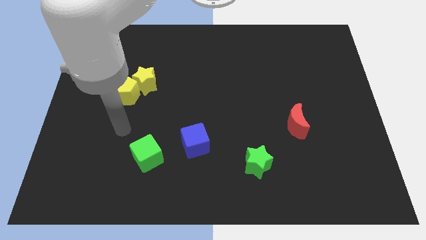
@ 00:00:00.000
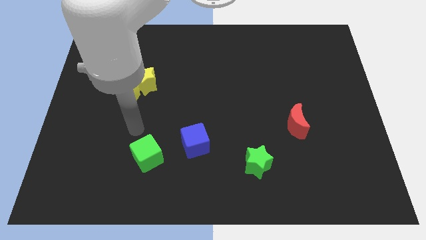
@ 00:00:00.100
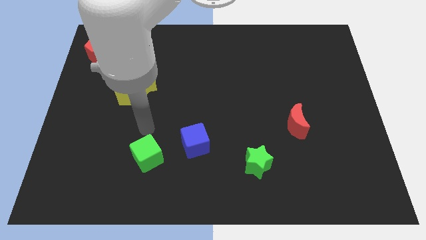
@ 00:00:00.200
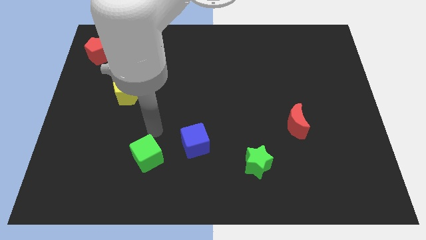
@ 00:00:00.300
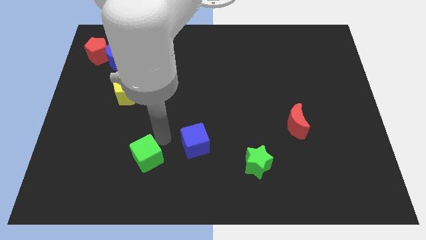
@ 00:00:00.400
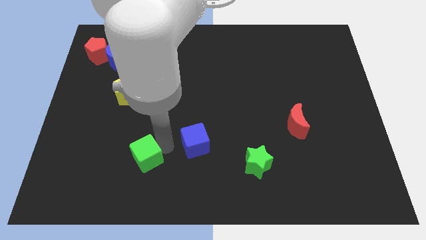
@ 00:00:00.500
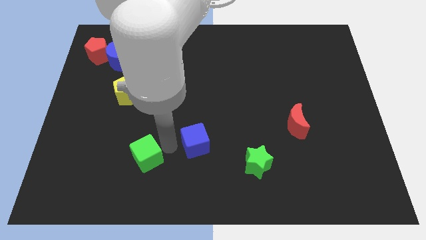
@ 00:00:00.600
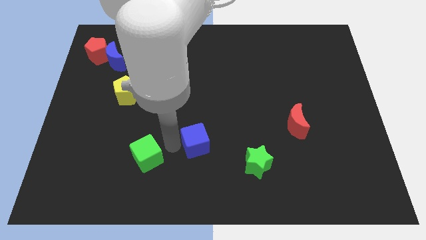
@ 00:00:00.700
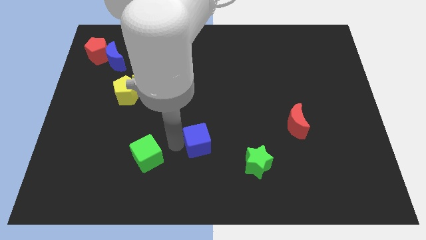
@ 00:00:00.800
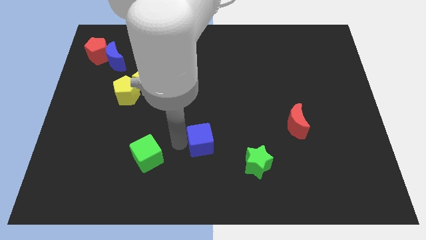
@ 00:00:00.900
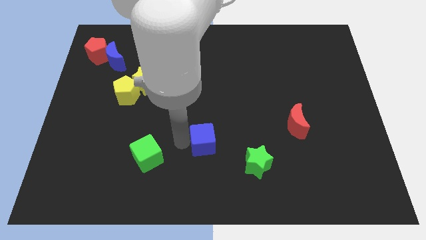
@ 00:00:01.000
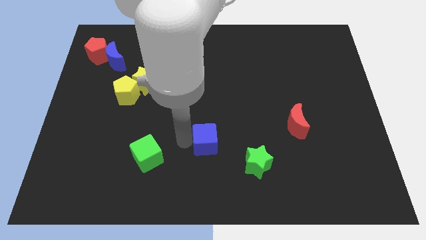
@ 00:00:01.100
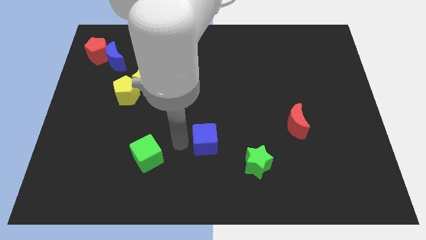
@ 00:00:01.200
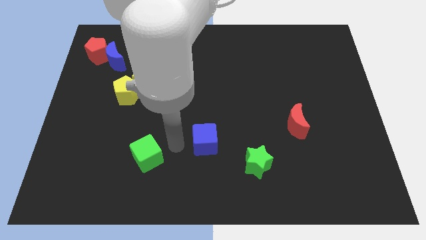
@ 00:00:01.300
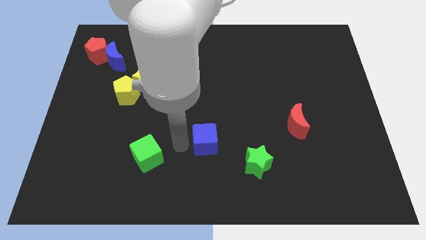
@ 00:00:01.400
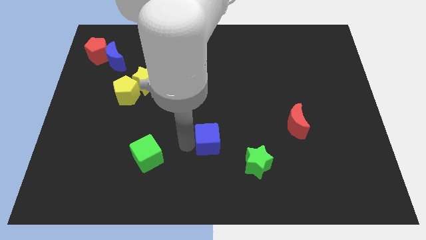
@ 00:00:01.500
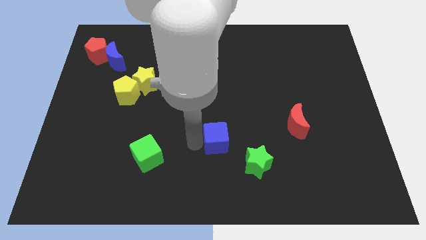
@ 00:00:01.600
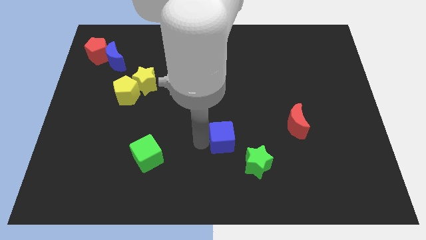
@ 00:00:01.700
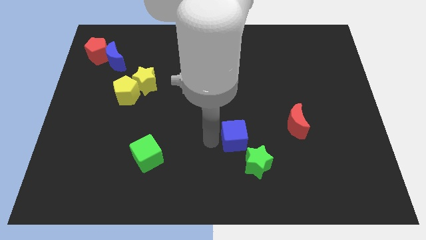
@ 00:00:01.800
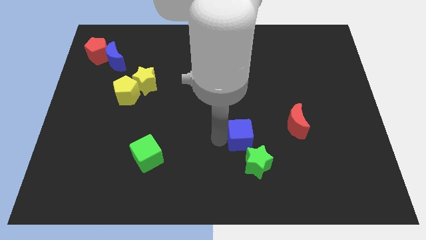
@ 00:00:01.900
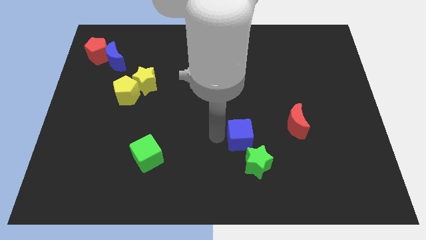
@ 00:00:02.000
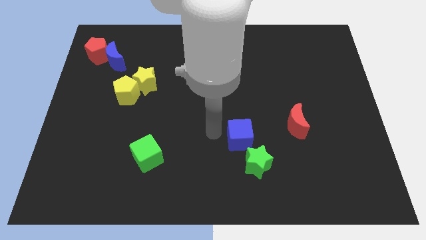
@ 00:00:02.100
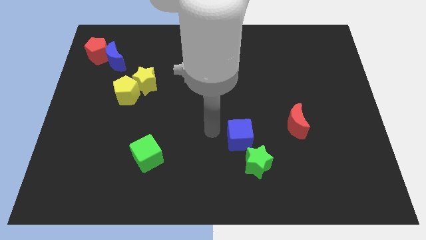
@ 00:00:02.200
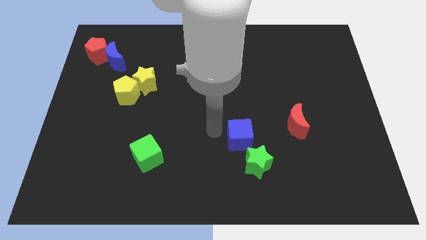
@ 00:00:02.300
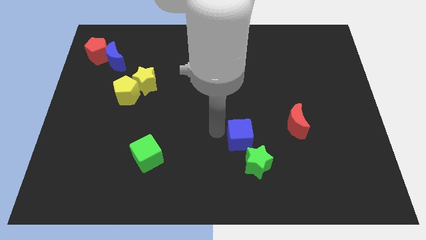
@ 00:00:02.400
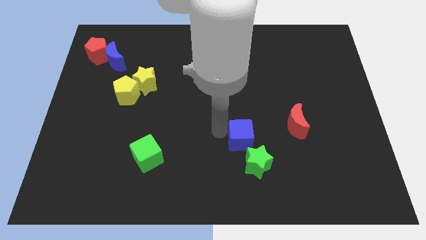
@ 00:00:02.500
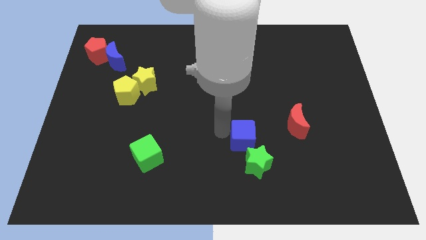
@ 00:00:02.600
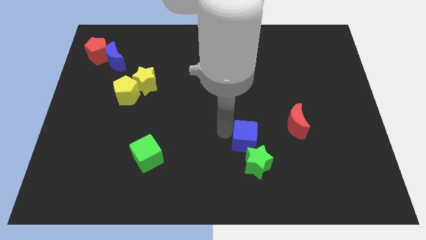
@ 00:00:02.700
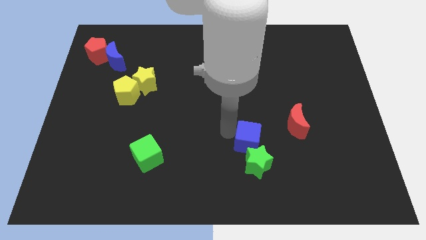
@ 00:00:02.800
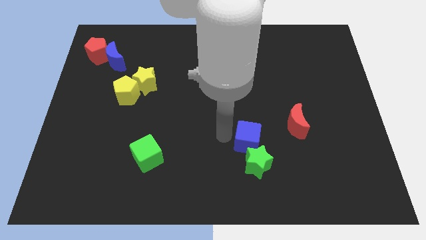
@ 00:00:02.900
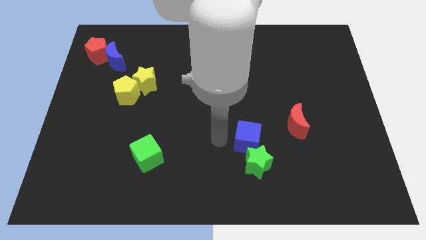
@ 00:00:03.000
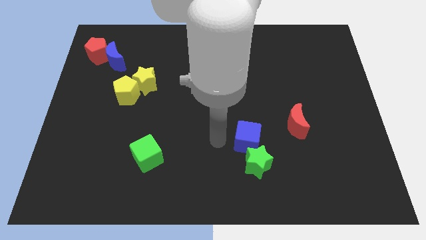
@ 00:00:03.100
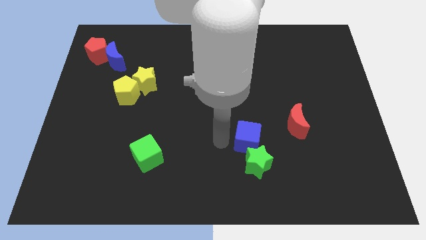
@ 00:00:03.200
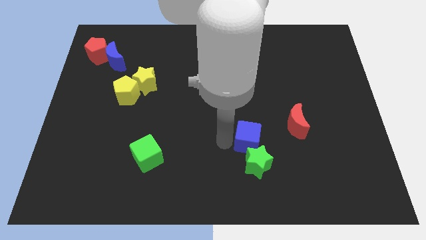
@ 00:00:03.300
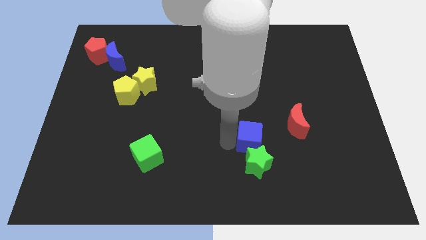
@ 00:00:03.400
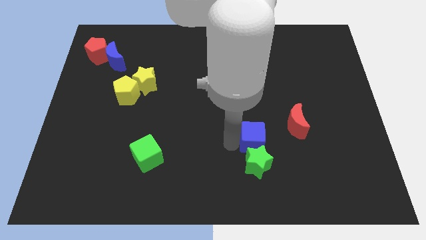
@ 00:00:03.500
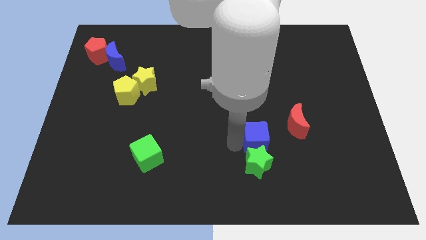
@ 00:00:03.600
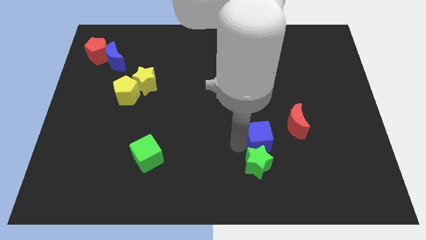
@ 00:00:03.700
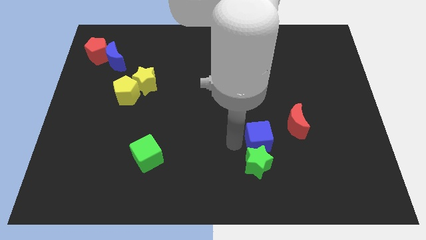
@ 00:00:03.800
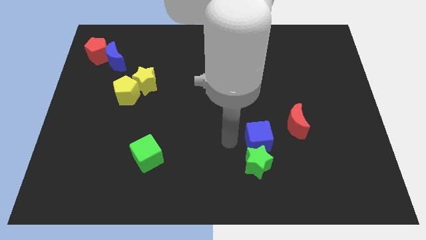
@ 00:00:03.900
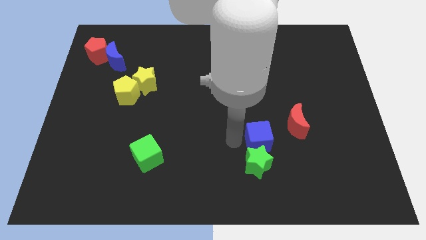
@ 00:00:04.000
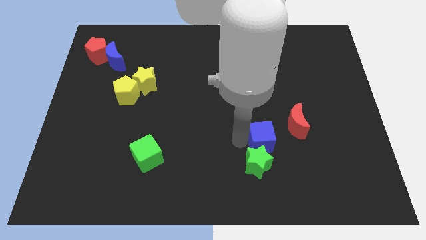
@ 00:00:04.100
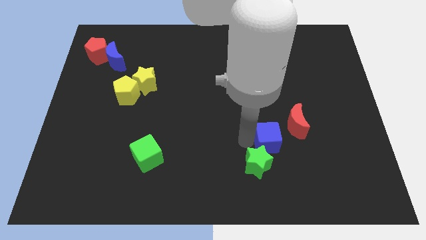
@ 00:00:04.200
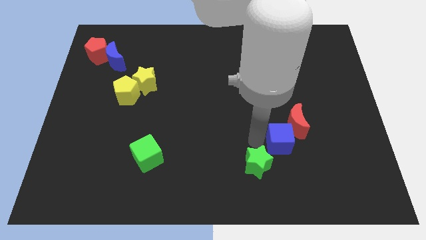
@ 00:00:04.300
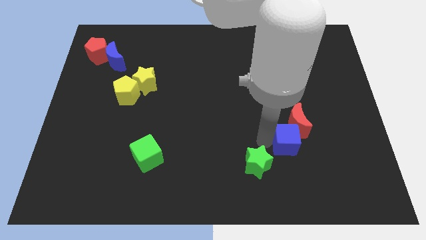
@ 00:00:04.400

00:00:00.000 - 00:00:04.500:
push the blue cube right

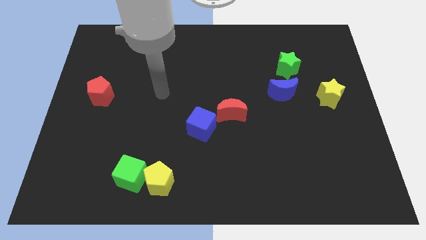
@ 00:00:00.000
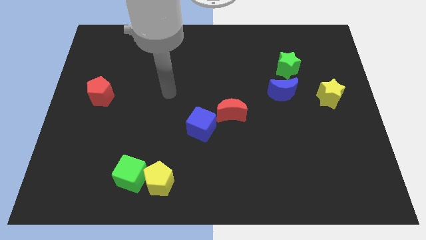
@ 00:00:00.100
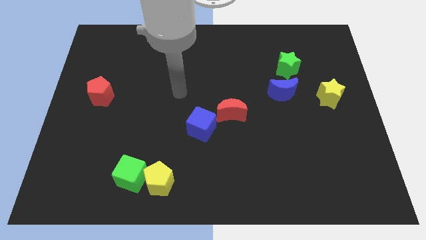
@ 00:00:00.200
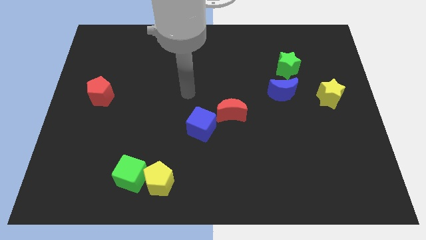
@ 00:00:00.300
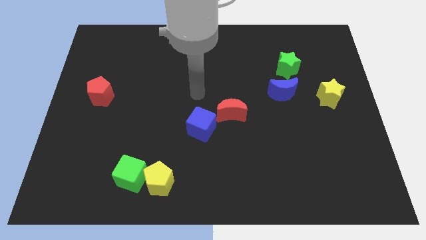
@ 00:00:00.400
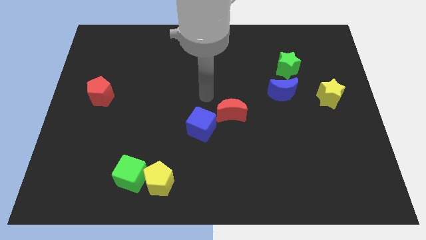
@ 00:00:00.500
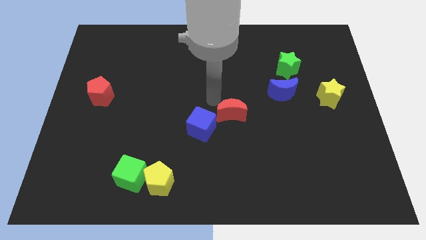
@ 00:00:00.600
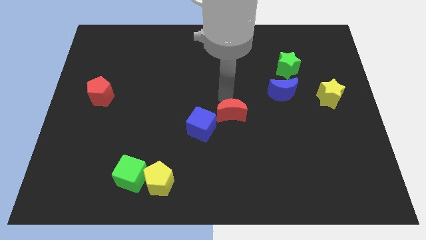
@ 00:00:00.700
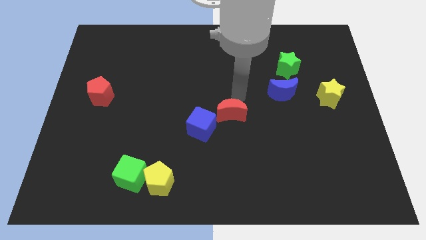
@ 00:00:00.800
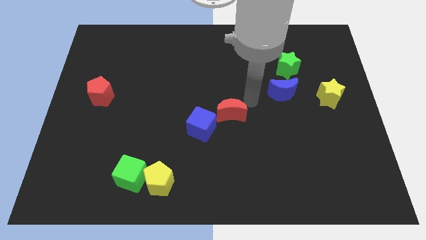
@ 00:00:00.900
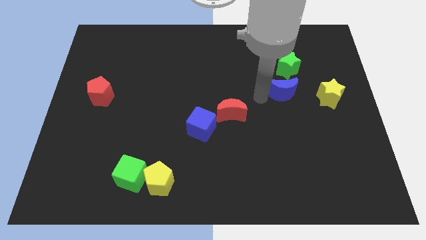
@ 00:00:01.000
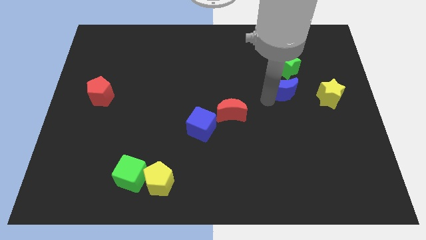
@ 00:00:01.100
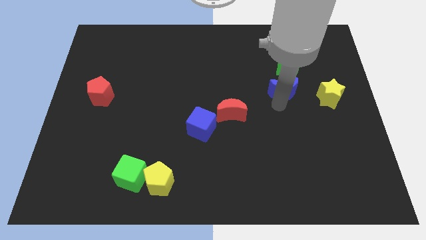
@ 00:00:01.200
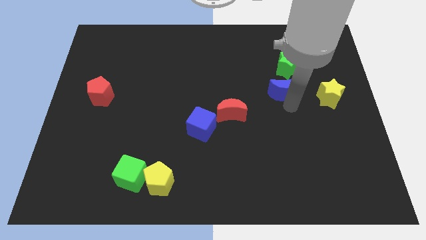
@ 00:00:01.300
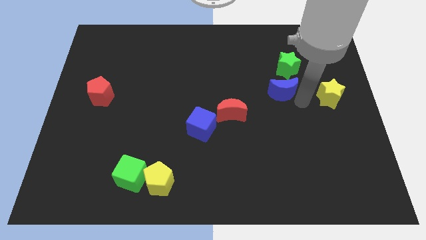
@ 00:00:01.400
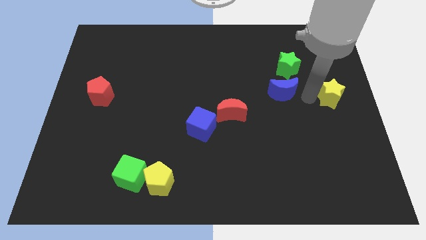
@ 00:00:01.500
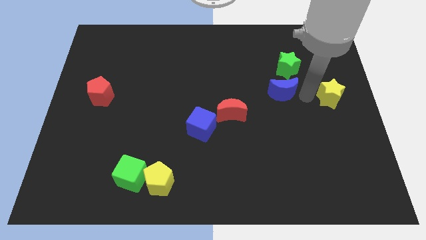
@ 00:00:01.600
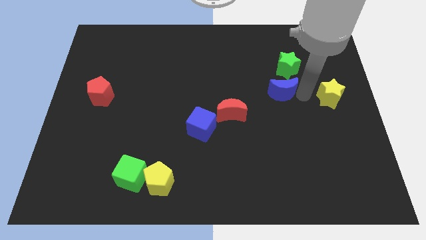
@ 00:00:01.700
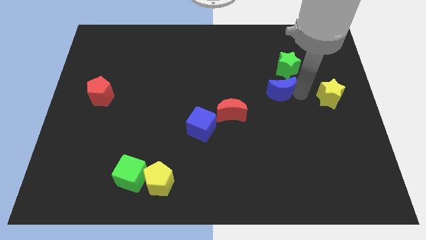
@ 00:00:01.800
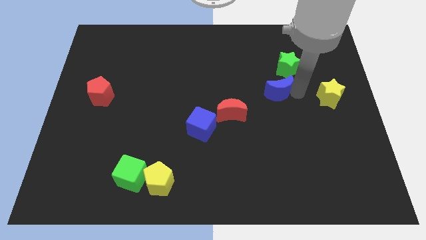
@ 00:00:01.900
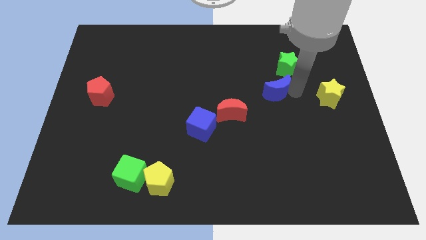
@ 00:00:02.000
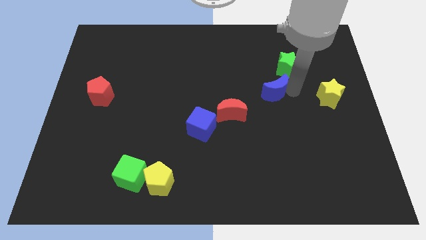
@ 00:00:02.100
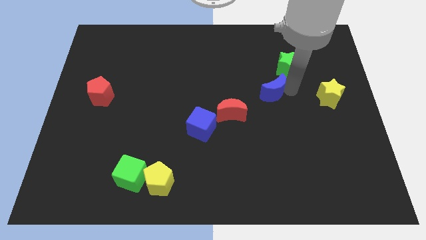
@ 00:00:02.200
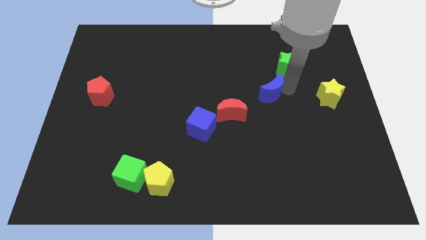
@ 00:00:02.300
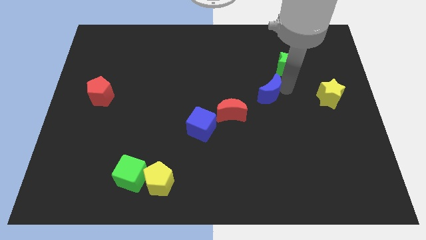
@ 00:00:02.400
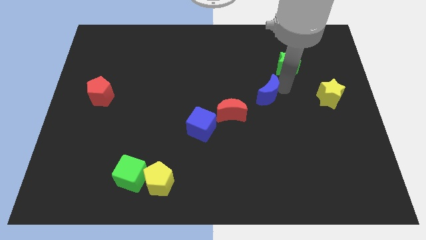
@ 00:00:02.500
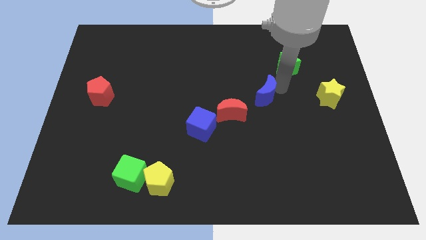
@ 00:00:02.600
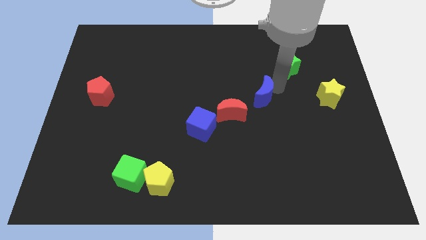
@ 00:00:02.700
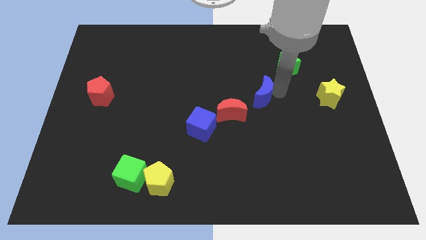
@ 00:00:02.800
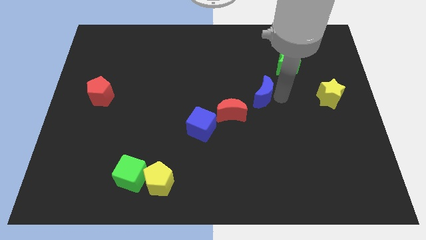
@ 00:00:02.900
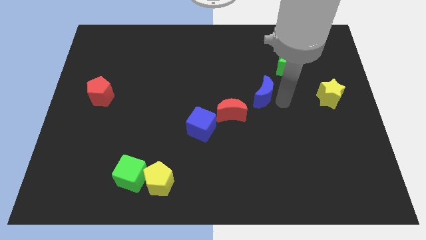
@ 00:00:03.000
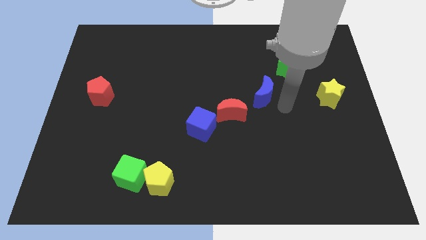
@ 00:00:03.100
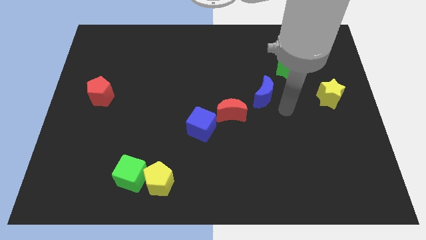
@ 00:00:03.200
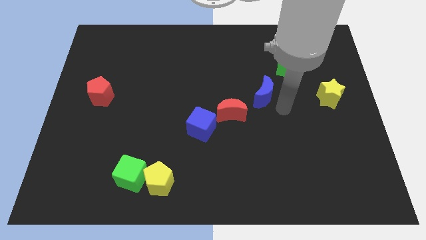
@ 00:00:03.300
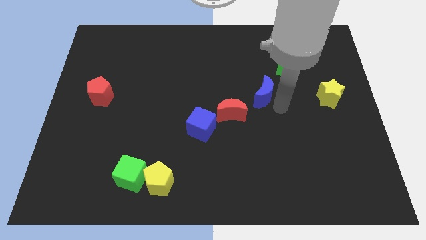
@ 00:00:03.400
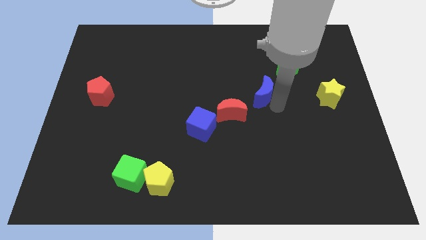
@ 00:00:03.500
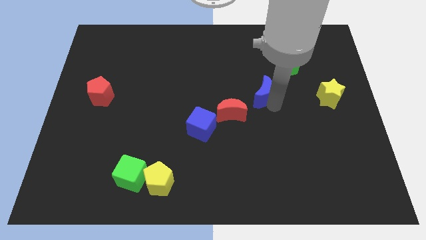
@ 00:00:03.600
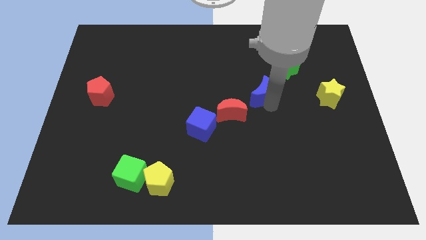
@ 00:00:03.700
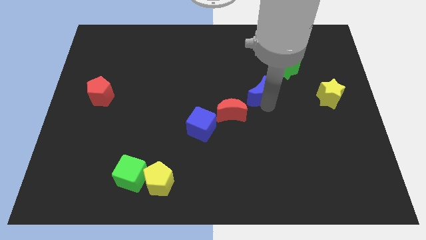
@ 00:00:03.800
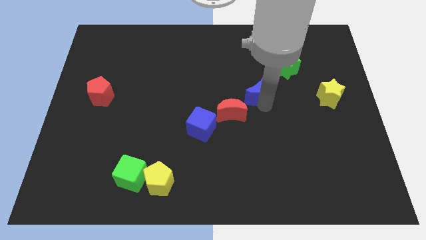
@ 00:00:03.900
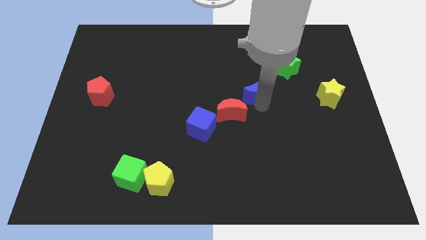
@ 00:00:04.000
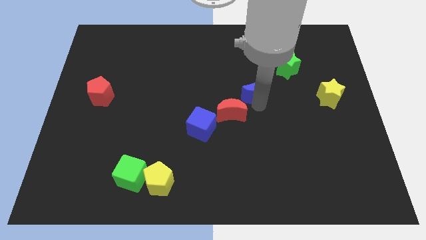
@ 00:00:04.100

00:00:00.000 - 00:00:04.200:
slightly move the blue moon left
